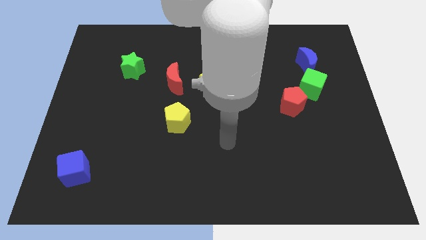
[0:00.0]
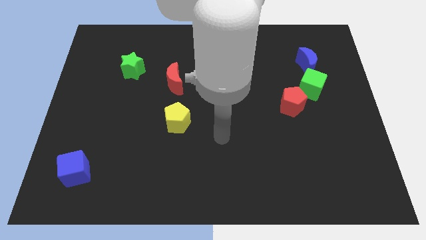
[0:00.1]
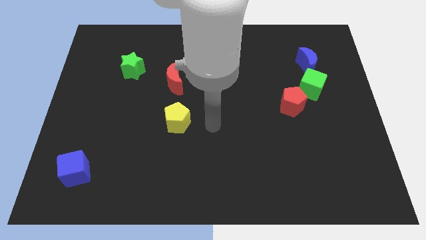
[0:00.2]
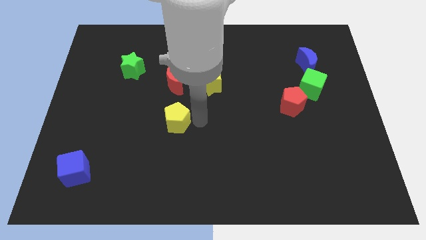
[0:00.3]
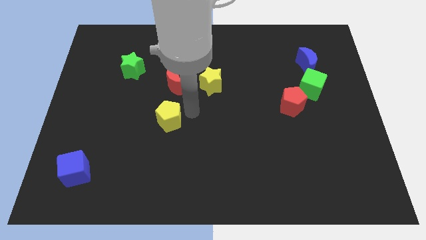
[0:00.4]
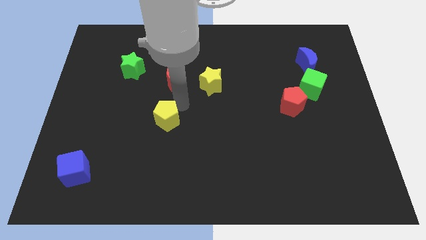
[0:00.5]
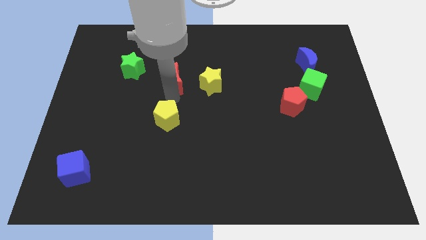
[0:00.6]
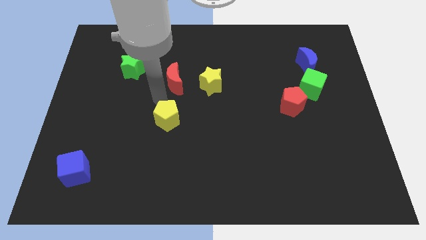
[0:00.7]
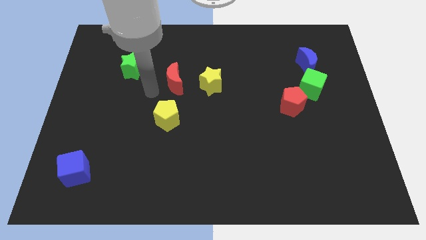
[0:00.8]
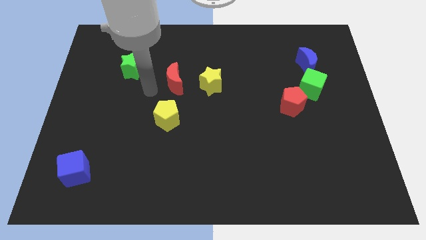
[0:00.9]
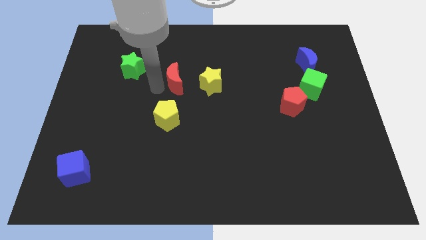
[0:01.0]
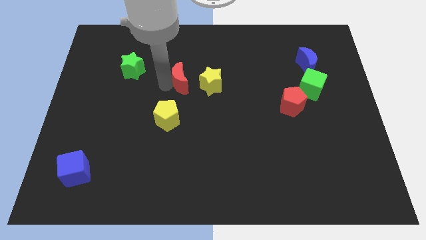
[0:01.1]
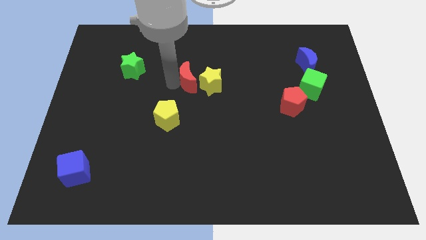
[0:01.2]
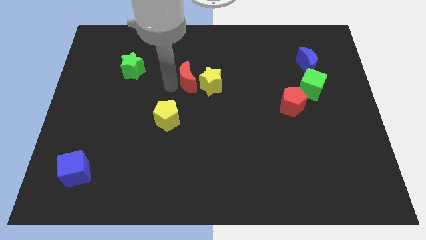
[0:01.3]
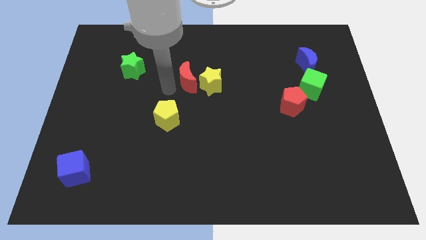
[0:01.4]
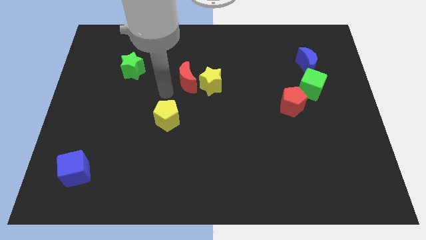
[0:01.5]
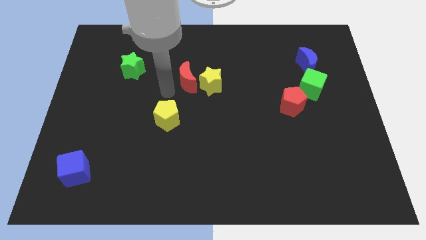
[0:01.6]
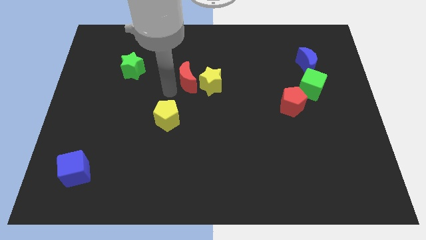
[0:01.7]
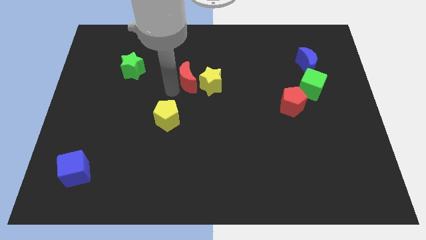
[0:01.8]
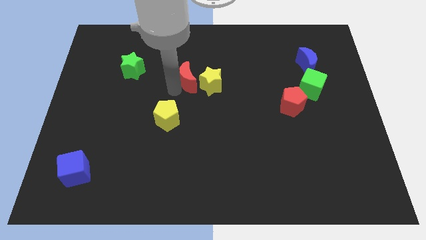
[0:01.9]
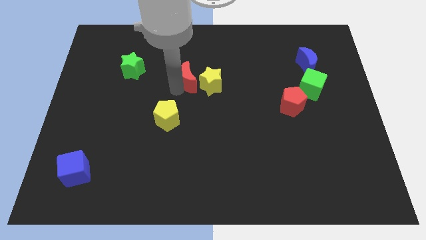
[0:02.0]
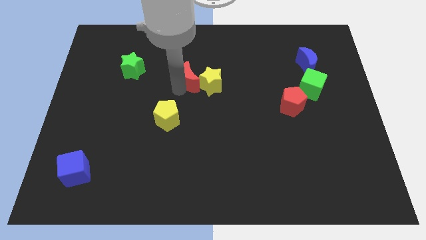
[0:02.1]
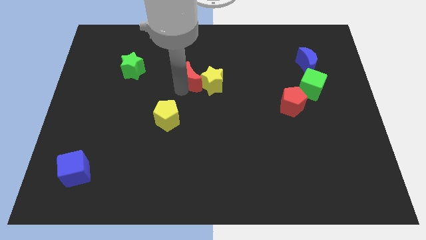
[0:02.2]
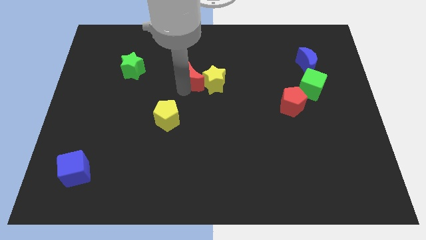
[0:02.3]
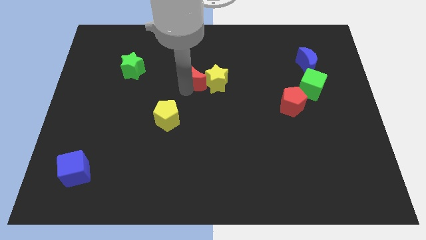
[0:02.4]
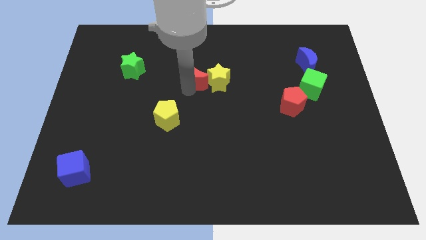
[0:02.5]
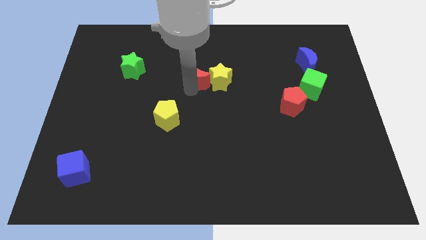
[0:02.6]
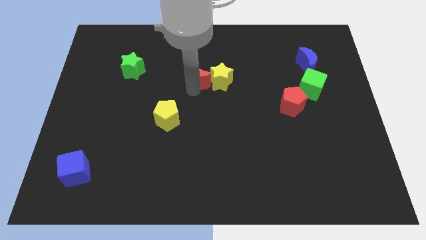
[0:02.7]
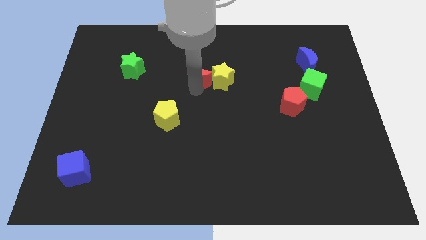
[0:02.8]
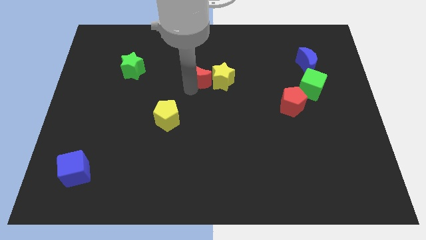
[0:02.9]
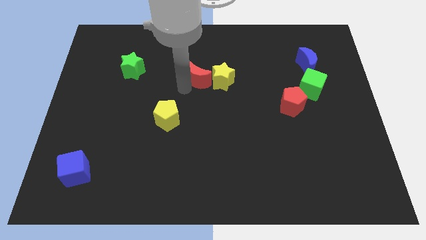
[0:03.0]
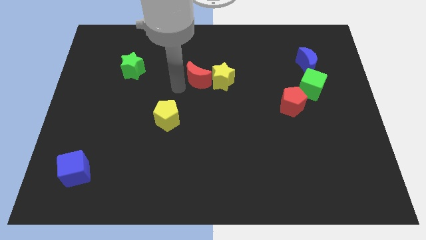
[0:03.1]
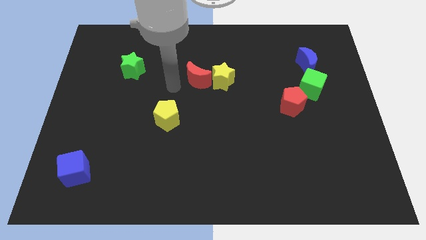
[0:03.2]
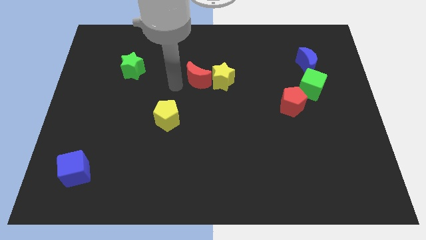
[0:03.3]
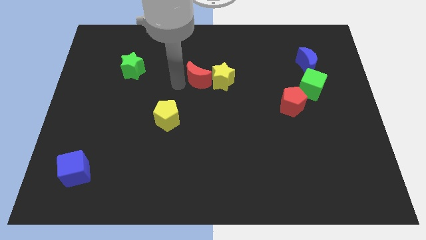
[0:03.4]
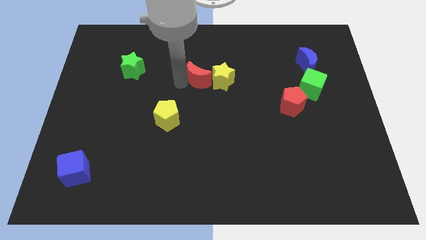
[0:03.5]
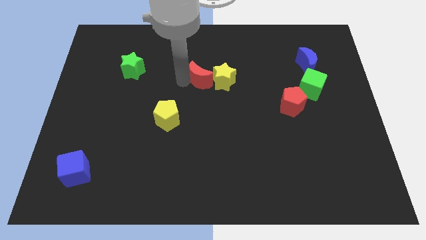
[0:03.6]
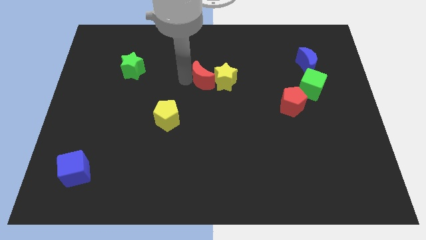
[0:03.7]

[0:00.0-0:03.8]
move the red moon to the right a bit

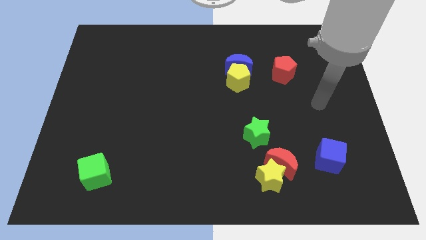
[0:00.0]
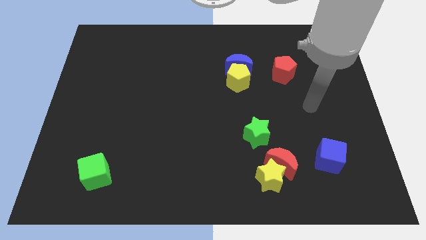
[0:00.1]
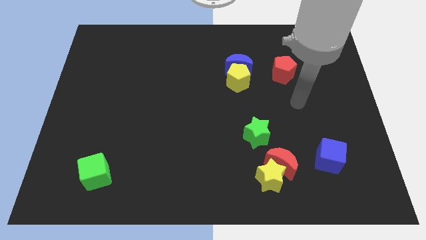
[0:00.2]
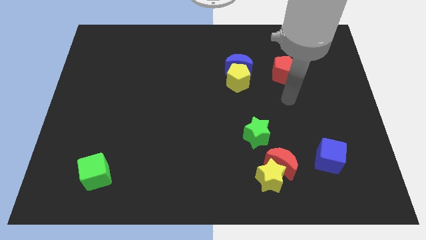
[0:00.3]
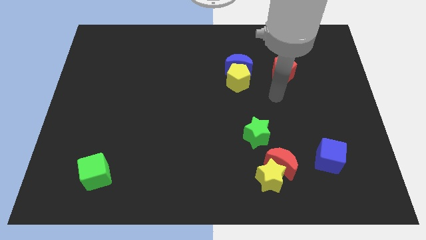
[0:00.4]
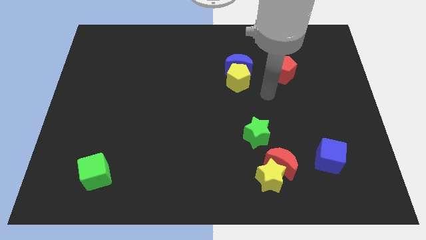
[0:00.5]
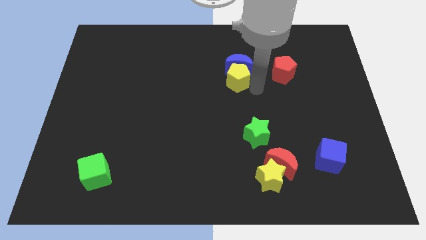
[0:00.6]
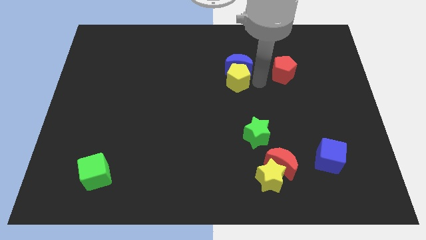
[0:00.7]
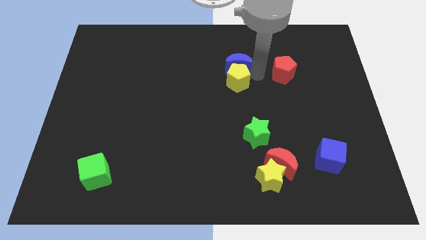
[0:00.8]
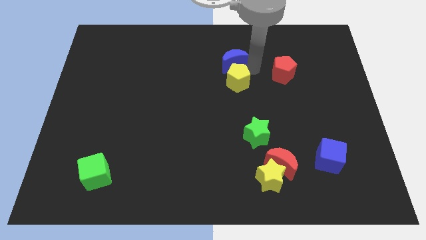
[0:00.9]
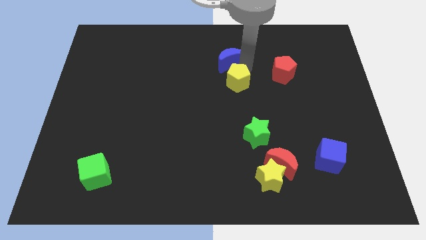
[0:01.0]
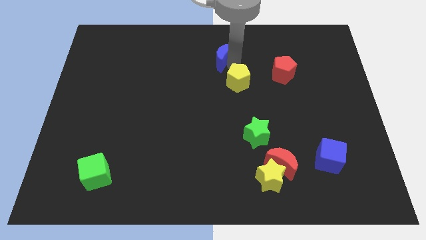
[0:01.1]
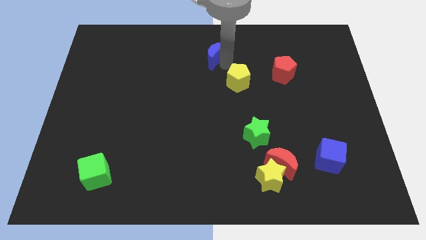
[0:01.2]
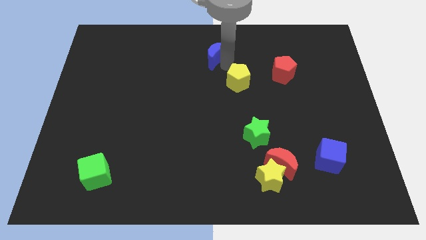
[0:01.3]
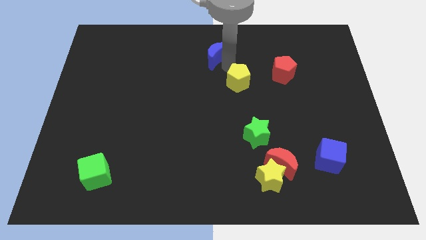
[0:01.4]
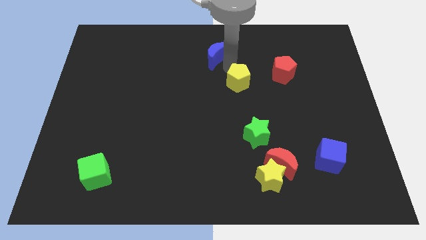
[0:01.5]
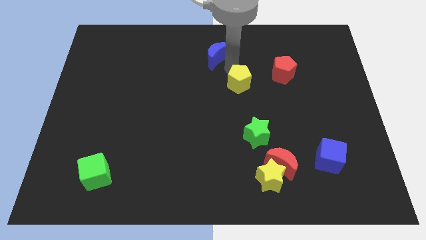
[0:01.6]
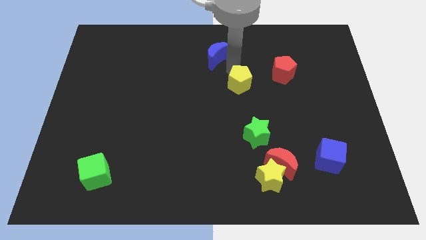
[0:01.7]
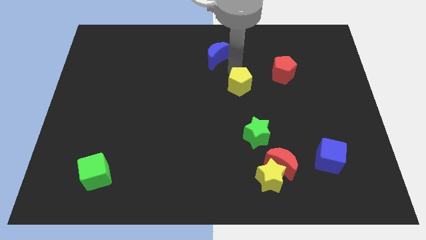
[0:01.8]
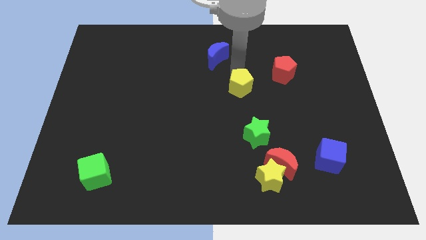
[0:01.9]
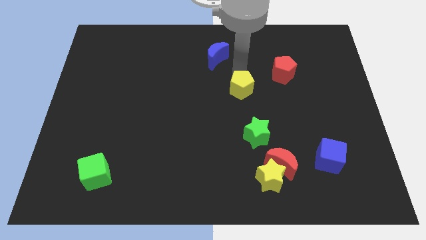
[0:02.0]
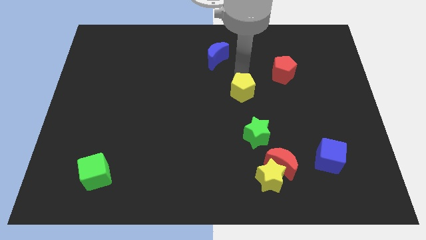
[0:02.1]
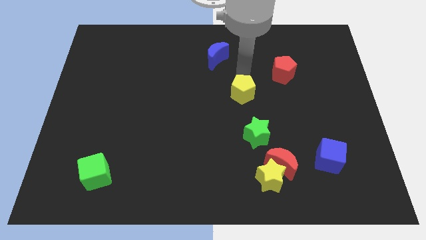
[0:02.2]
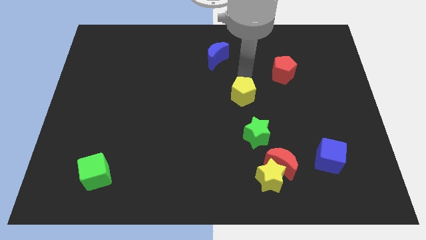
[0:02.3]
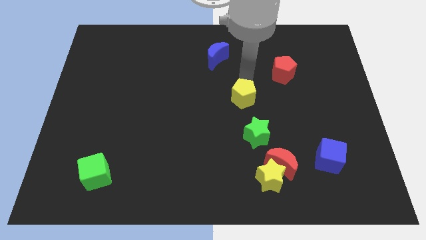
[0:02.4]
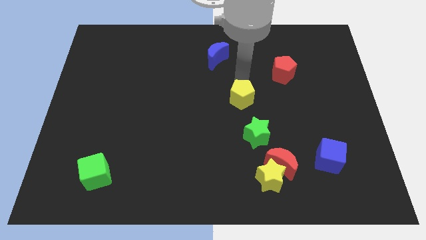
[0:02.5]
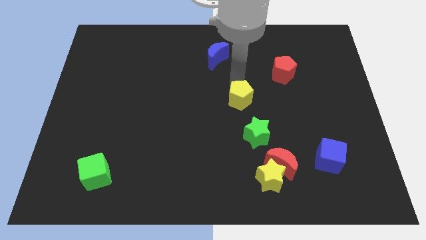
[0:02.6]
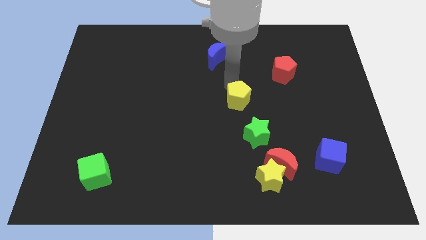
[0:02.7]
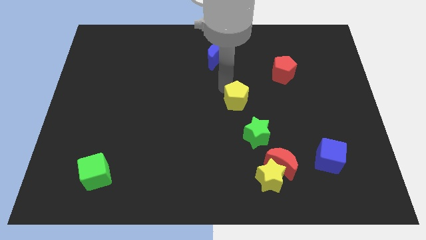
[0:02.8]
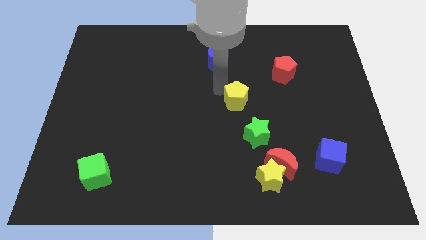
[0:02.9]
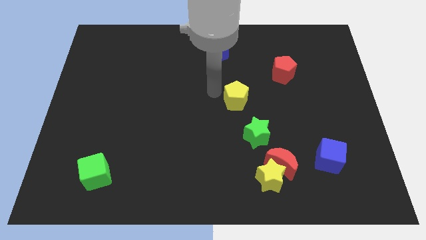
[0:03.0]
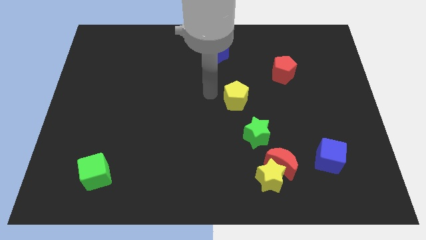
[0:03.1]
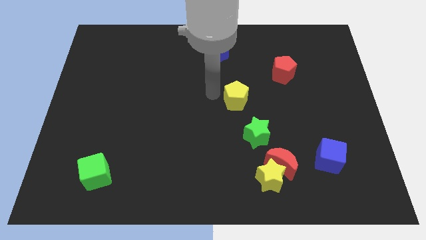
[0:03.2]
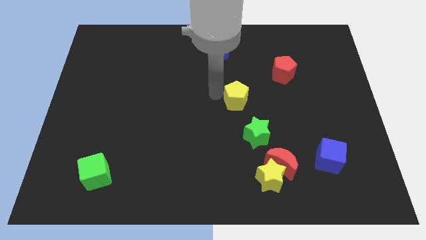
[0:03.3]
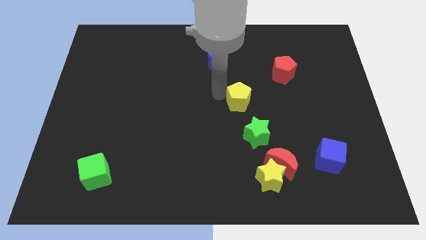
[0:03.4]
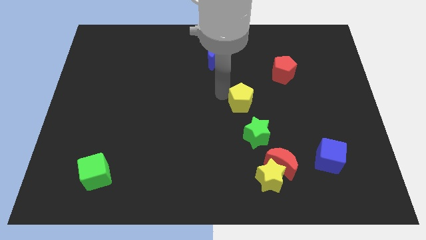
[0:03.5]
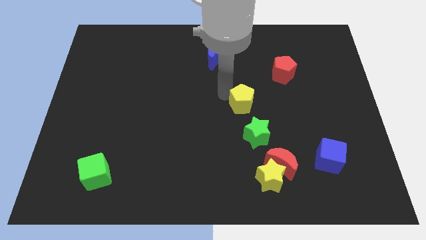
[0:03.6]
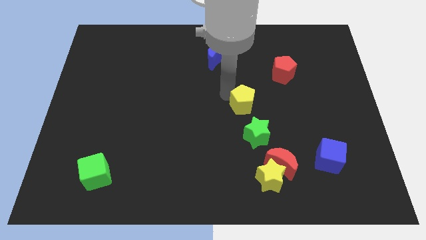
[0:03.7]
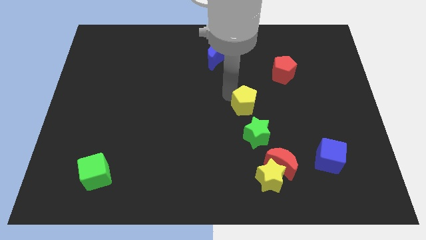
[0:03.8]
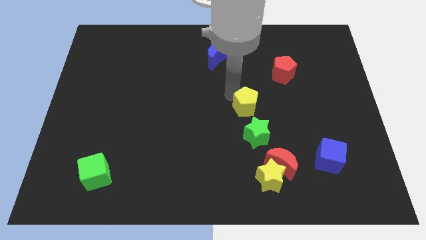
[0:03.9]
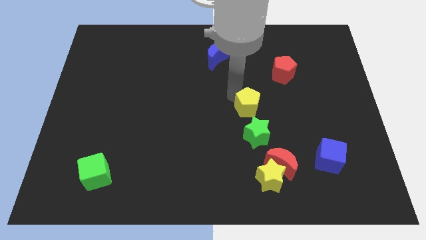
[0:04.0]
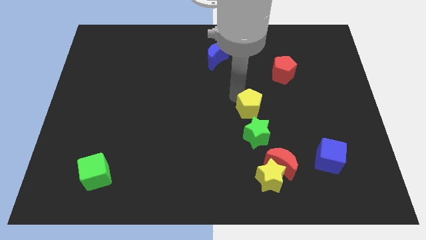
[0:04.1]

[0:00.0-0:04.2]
push the yellow pentagon downwards and right a little bit
